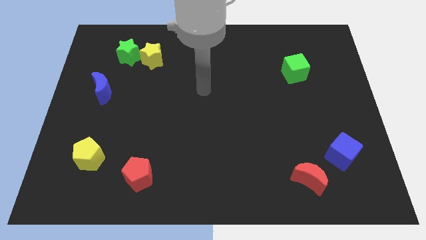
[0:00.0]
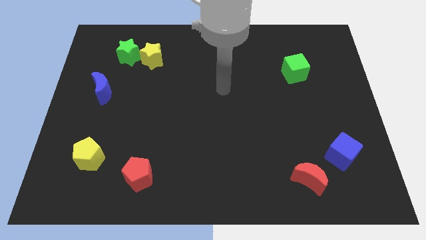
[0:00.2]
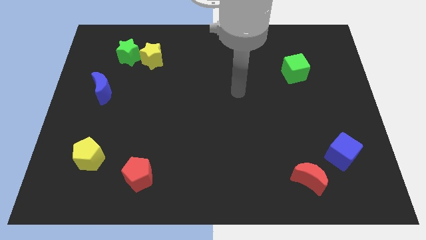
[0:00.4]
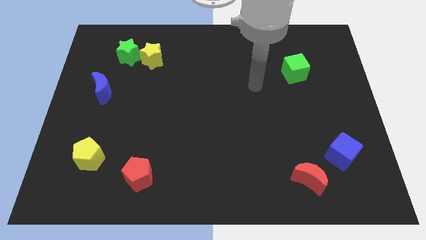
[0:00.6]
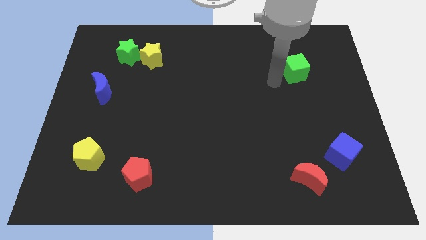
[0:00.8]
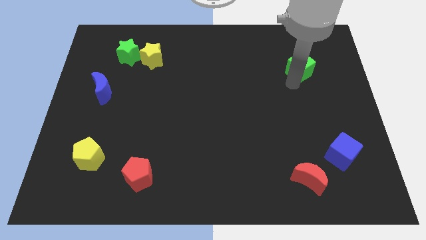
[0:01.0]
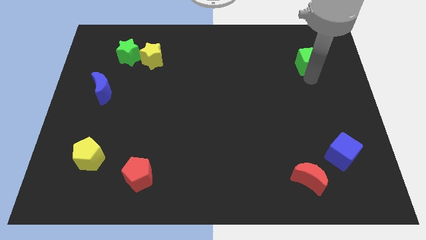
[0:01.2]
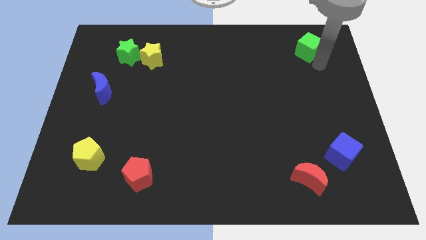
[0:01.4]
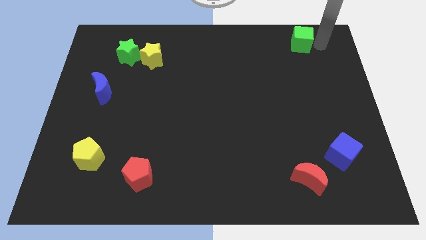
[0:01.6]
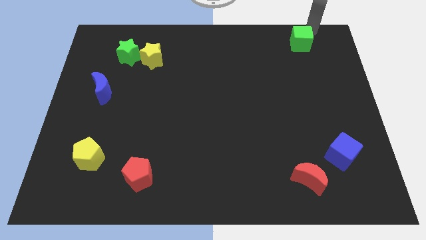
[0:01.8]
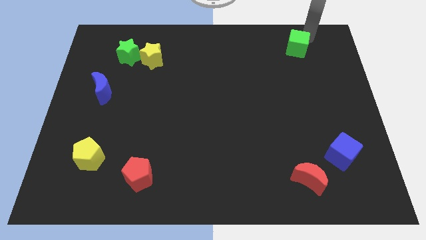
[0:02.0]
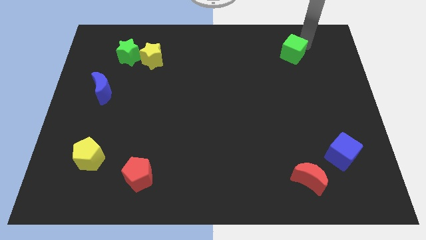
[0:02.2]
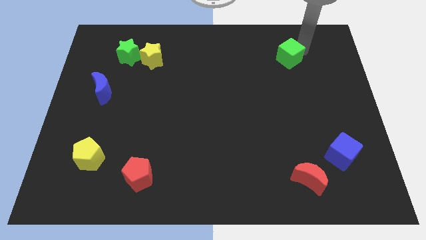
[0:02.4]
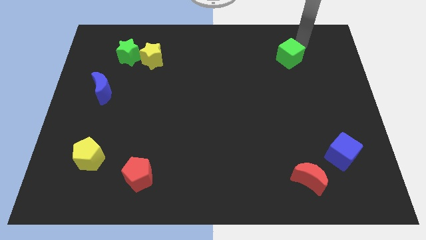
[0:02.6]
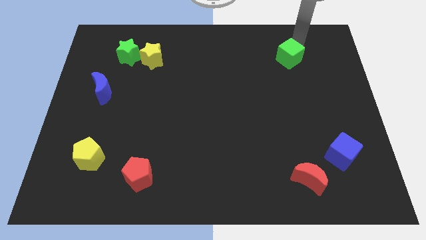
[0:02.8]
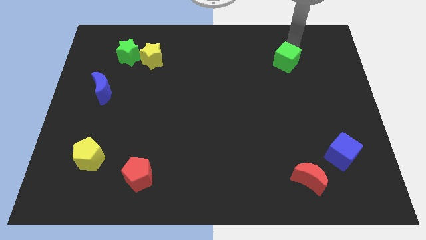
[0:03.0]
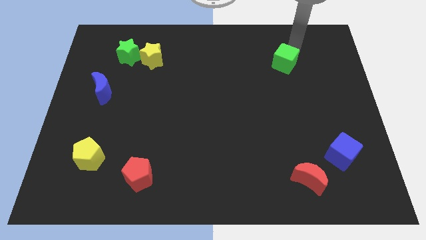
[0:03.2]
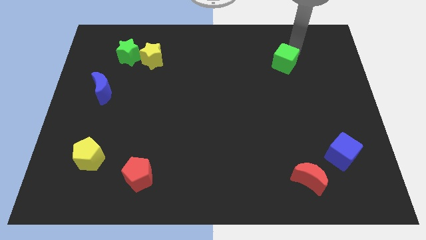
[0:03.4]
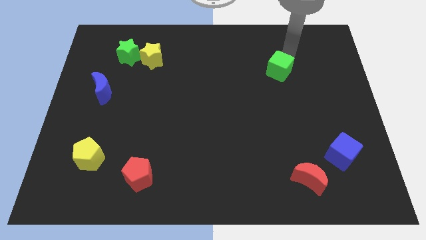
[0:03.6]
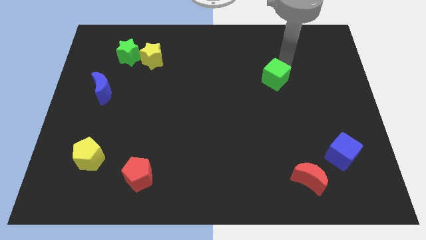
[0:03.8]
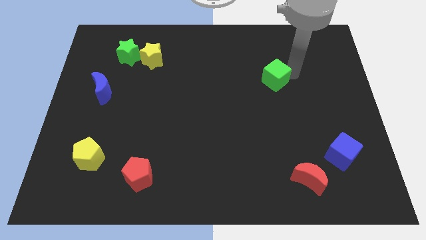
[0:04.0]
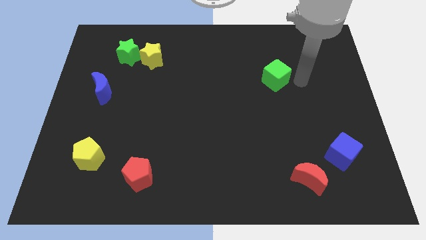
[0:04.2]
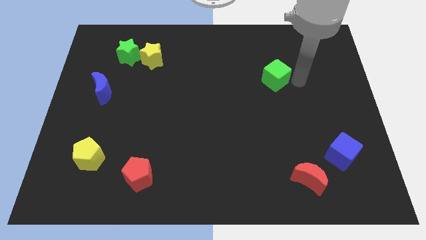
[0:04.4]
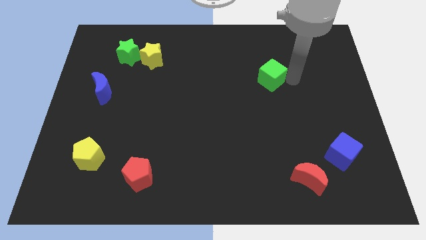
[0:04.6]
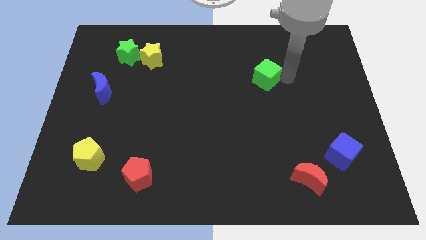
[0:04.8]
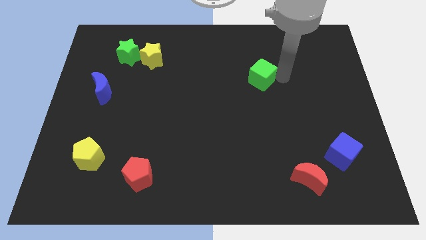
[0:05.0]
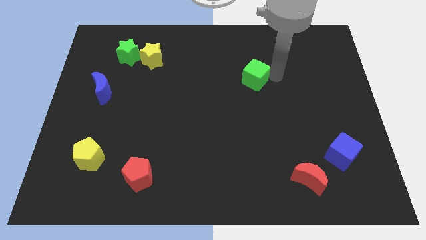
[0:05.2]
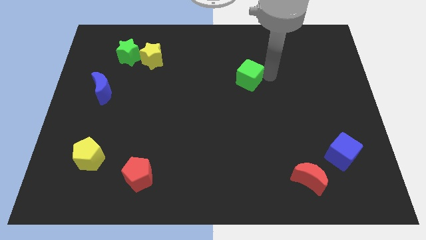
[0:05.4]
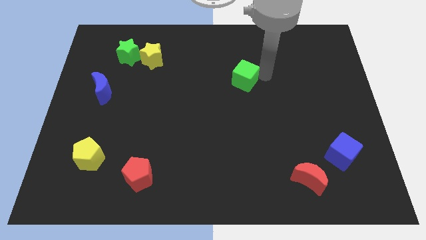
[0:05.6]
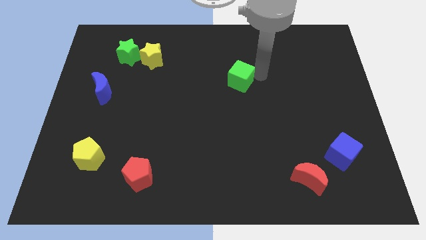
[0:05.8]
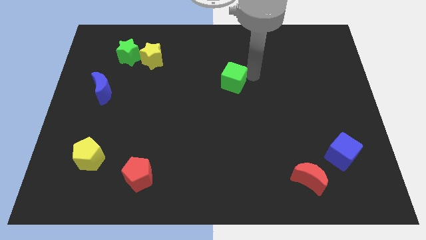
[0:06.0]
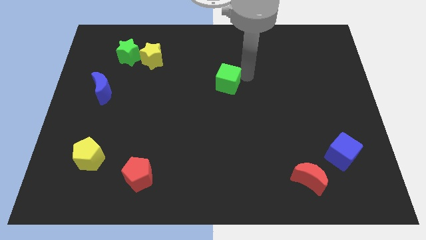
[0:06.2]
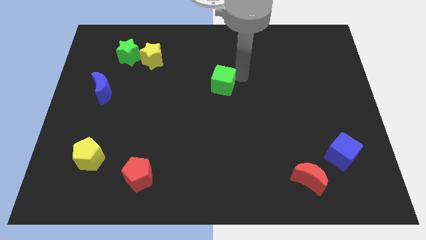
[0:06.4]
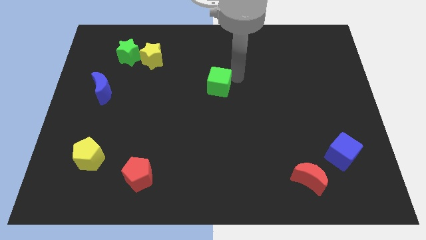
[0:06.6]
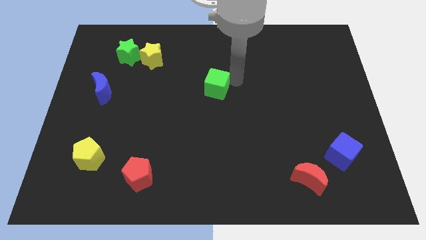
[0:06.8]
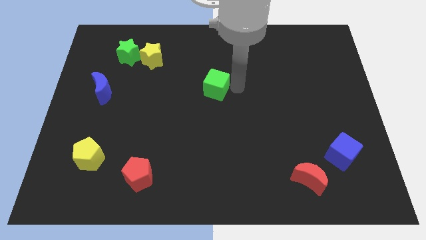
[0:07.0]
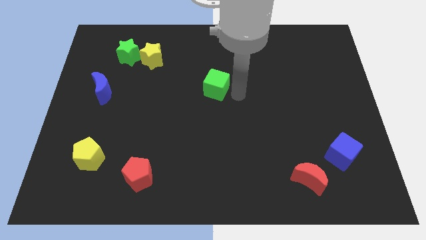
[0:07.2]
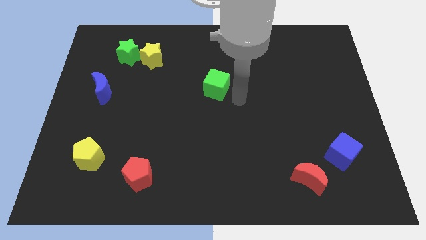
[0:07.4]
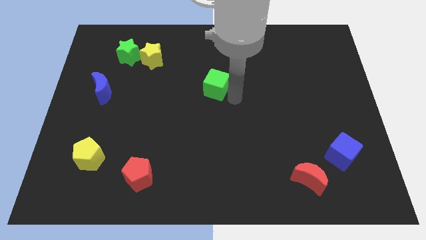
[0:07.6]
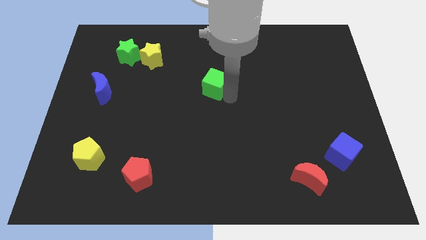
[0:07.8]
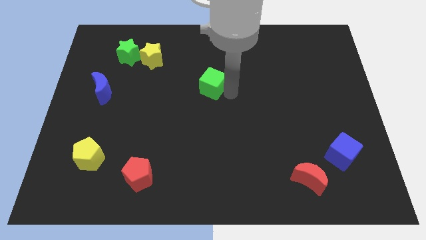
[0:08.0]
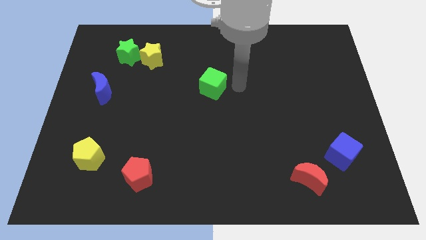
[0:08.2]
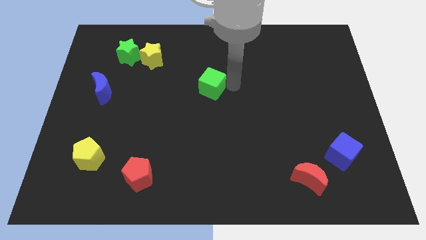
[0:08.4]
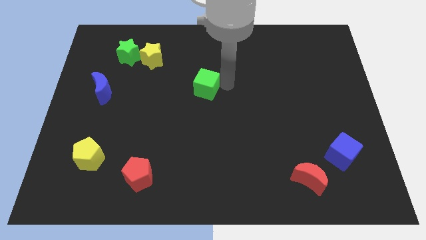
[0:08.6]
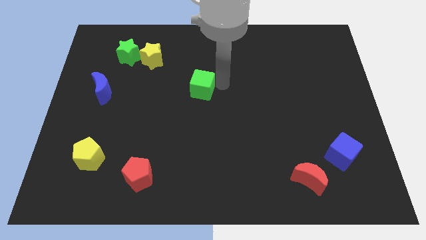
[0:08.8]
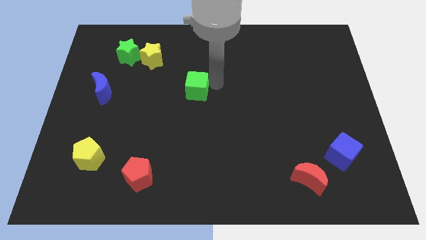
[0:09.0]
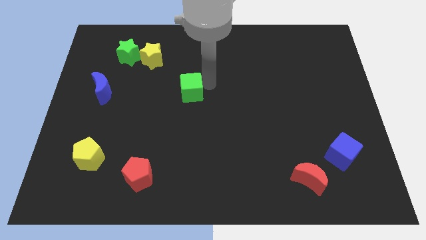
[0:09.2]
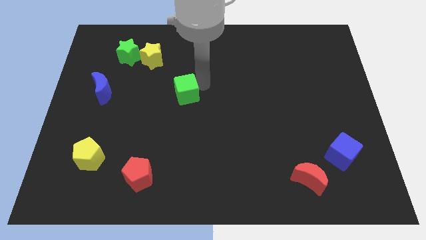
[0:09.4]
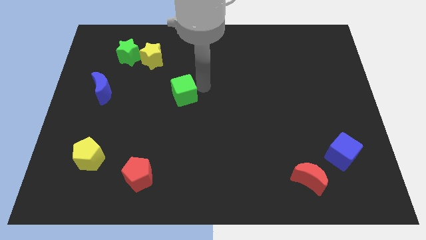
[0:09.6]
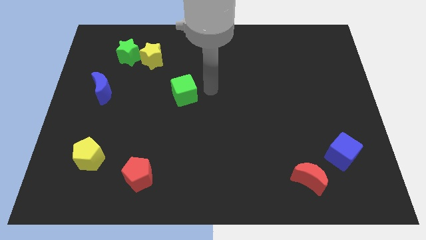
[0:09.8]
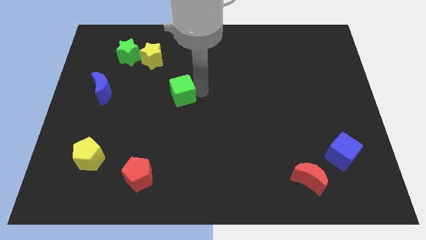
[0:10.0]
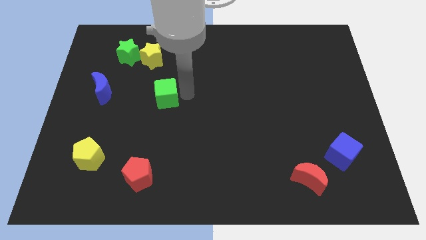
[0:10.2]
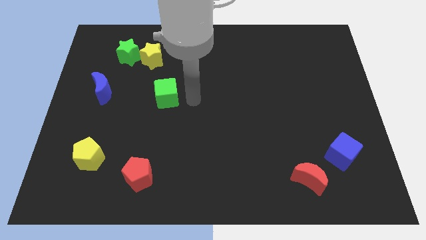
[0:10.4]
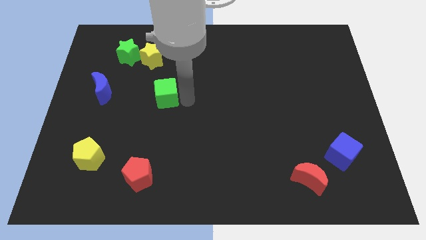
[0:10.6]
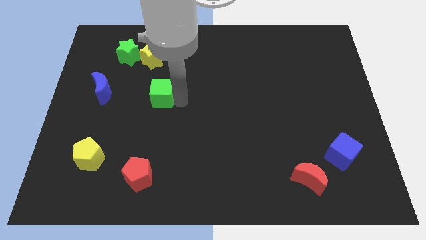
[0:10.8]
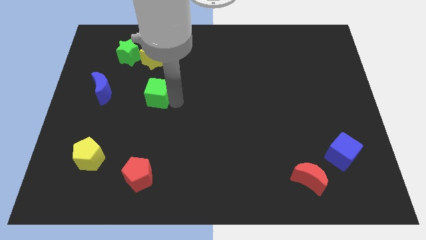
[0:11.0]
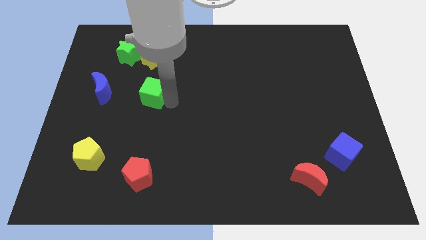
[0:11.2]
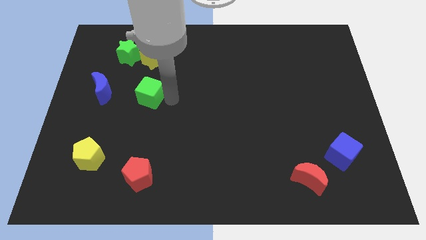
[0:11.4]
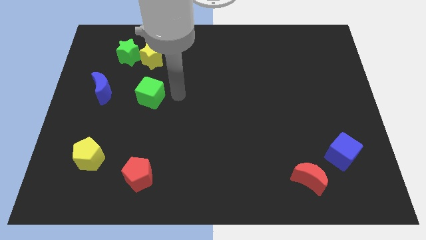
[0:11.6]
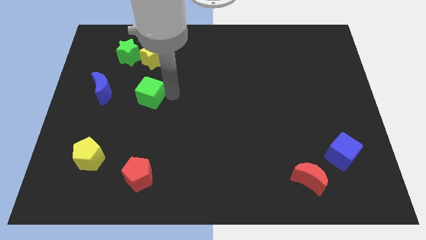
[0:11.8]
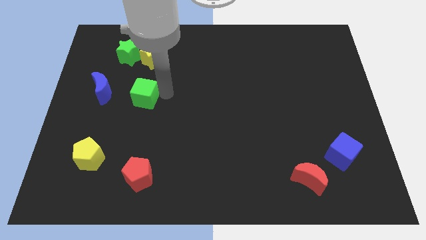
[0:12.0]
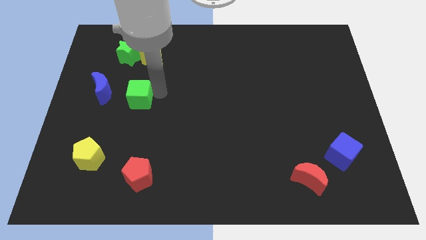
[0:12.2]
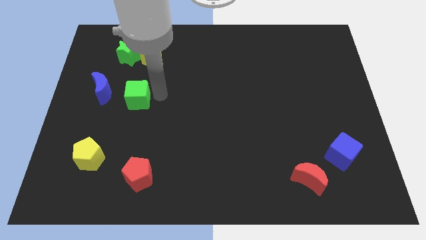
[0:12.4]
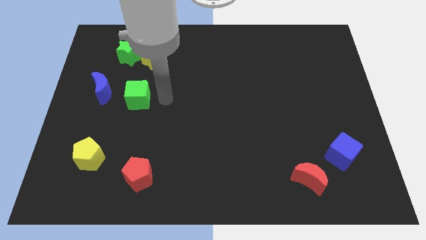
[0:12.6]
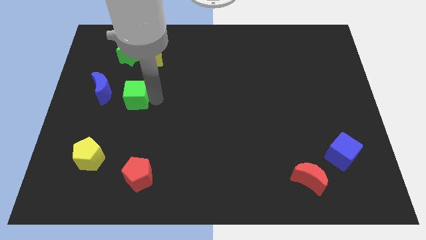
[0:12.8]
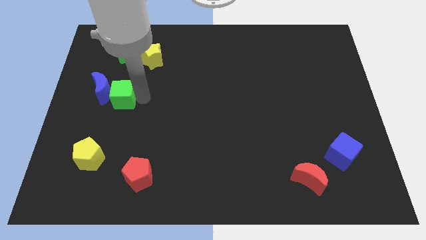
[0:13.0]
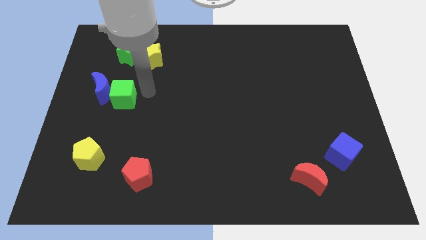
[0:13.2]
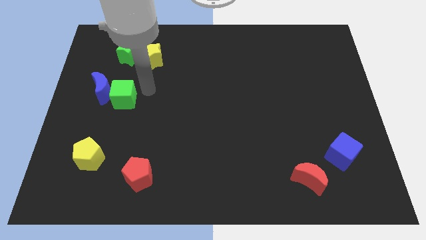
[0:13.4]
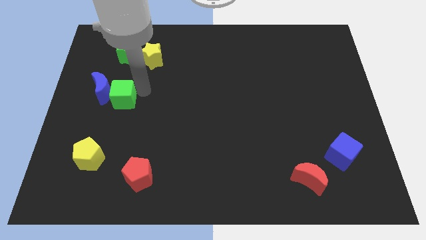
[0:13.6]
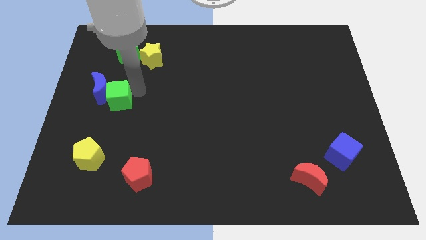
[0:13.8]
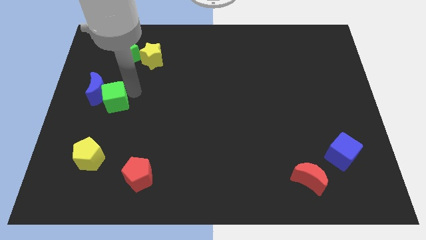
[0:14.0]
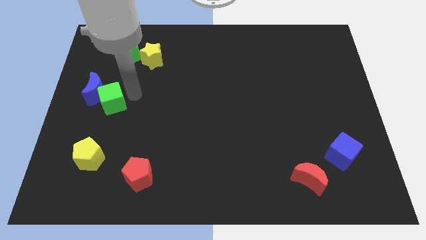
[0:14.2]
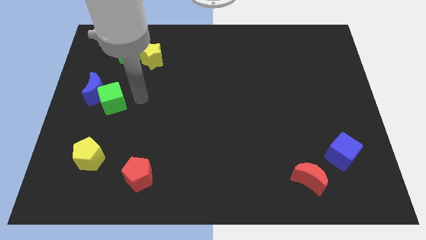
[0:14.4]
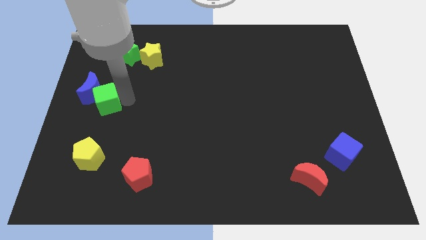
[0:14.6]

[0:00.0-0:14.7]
slide the green cube to the center left
